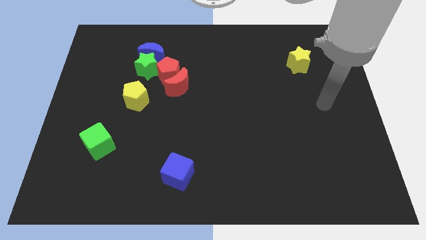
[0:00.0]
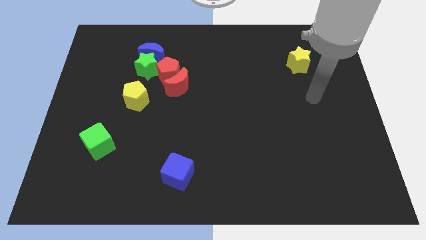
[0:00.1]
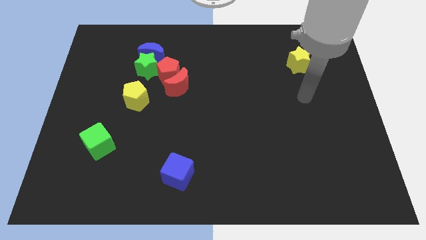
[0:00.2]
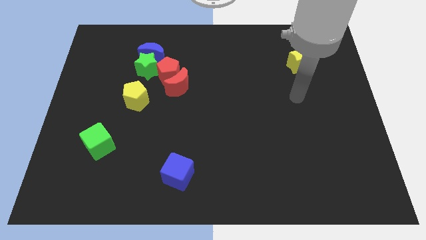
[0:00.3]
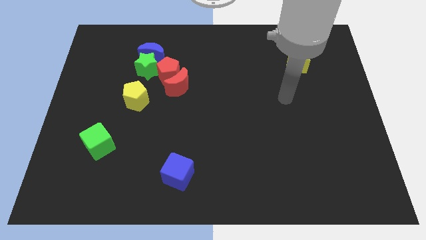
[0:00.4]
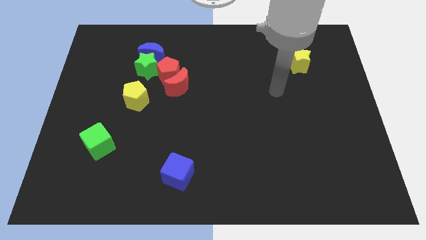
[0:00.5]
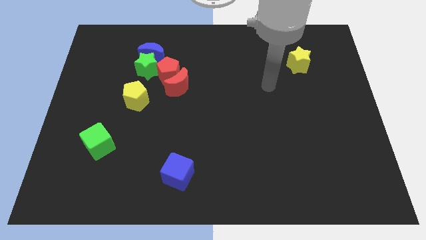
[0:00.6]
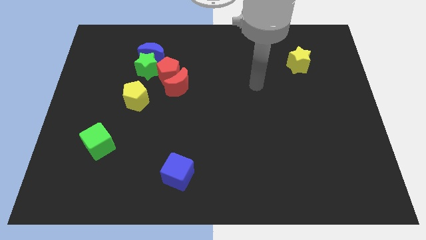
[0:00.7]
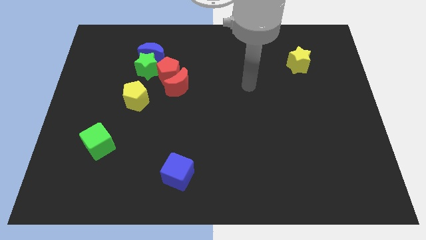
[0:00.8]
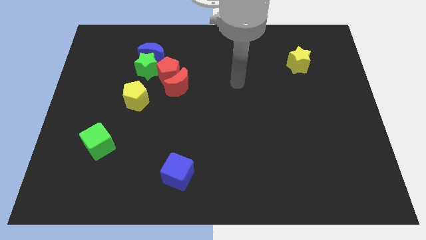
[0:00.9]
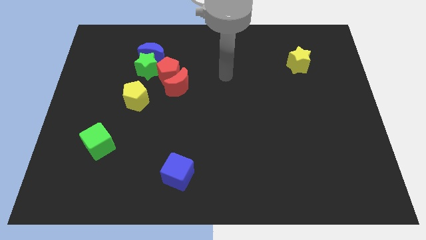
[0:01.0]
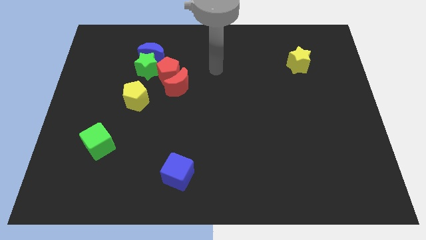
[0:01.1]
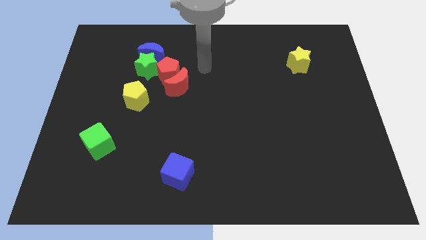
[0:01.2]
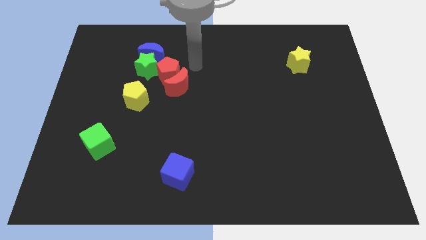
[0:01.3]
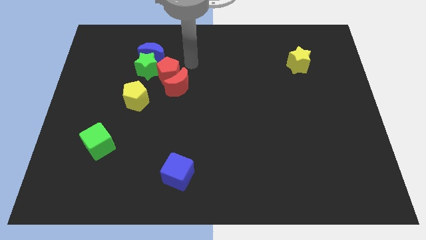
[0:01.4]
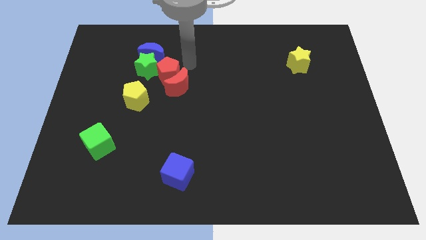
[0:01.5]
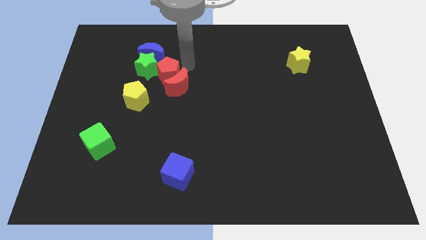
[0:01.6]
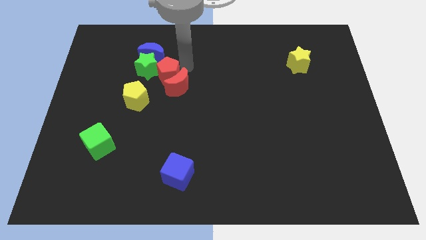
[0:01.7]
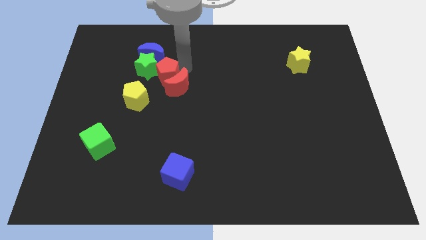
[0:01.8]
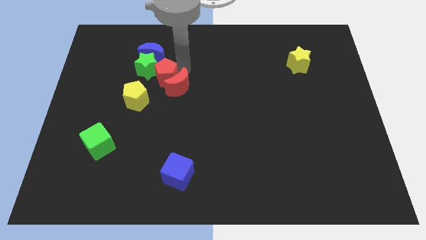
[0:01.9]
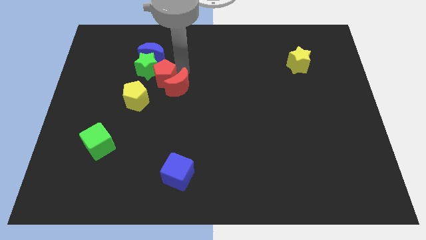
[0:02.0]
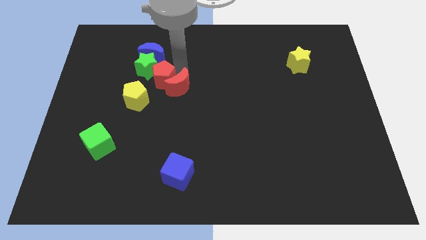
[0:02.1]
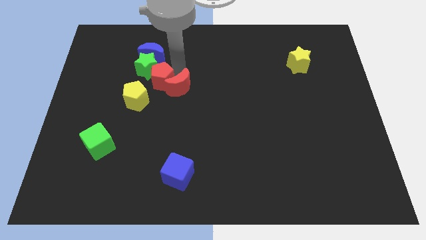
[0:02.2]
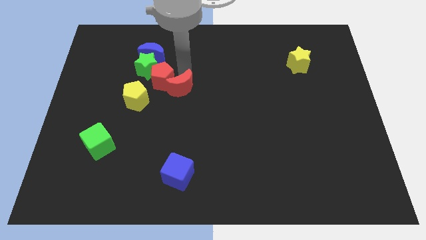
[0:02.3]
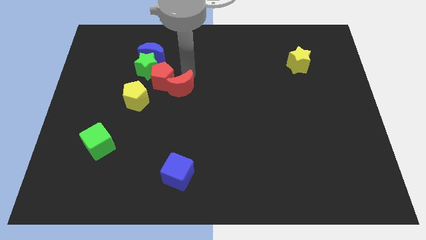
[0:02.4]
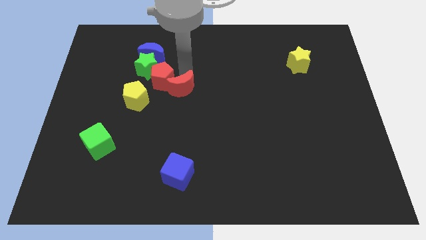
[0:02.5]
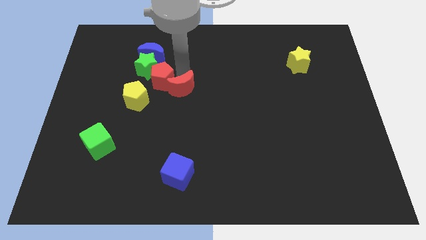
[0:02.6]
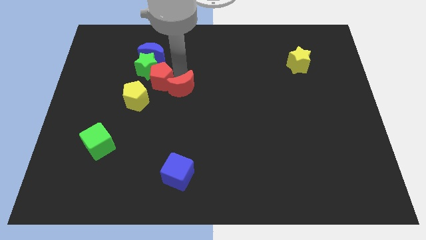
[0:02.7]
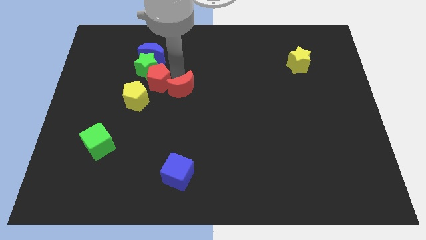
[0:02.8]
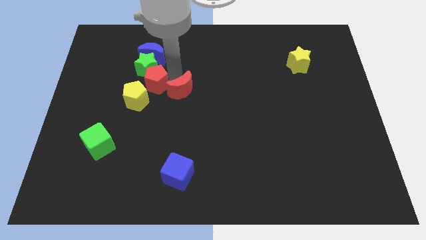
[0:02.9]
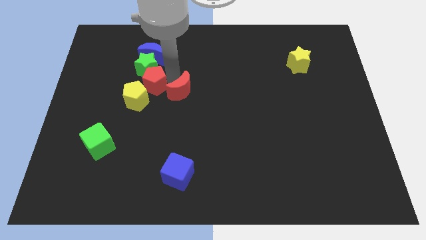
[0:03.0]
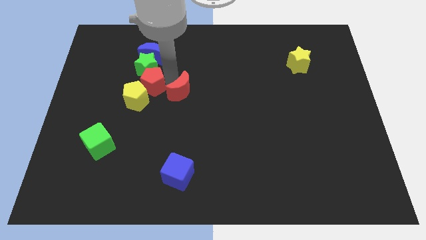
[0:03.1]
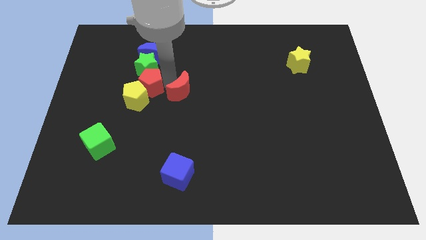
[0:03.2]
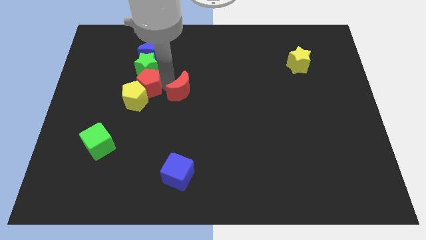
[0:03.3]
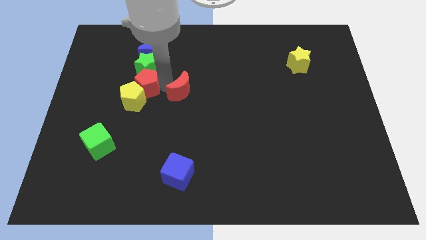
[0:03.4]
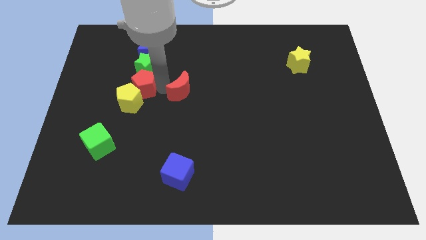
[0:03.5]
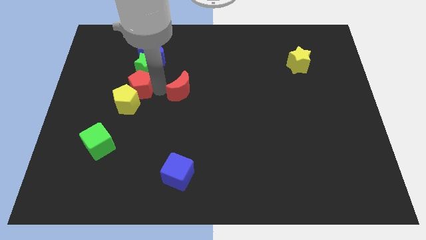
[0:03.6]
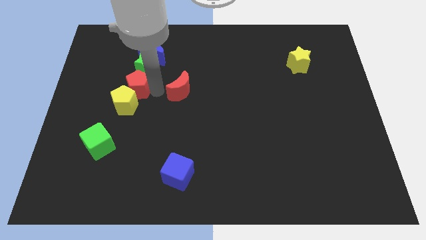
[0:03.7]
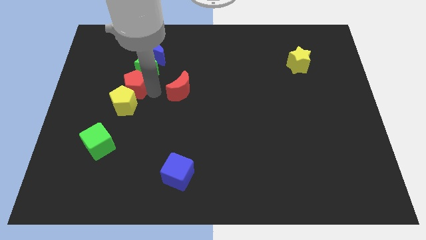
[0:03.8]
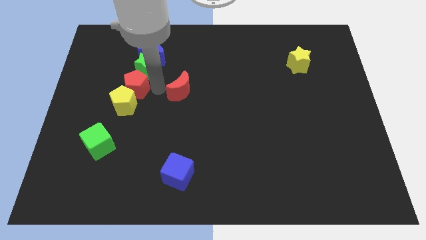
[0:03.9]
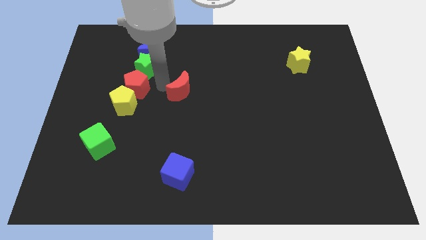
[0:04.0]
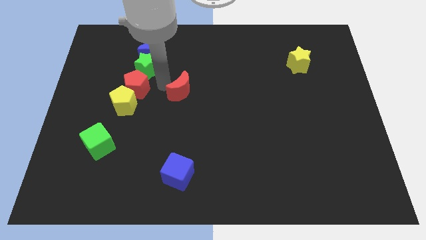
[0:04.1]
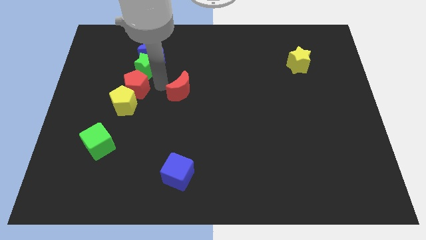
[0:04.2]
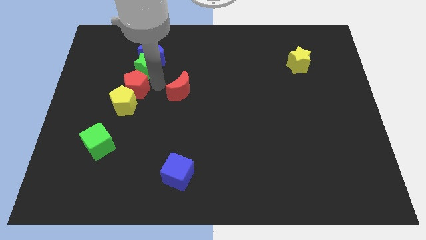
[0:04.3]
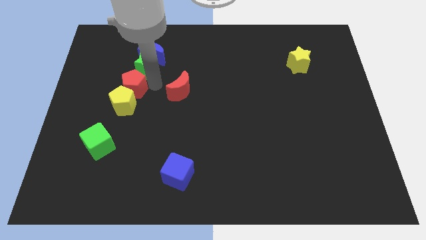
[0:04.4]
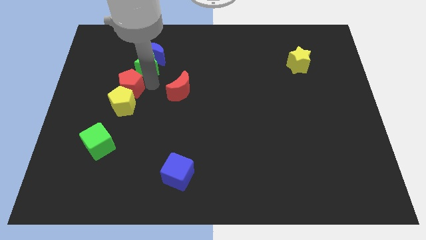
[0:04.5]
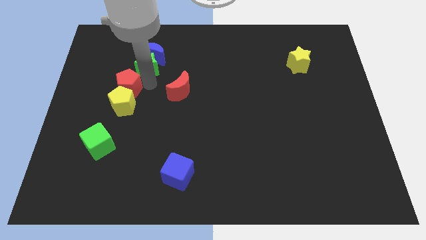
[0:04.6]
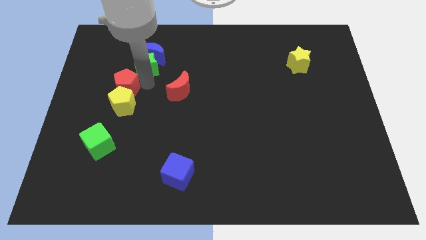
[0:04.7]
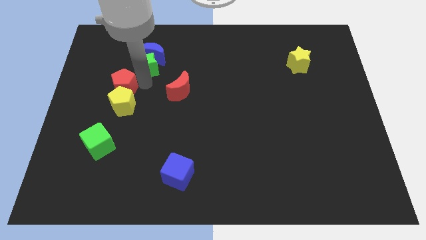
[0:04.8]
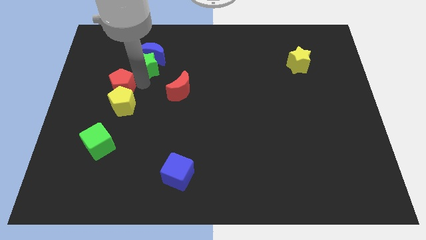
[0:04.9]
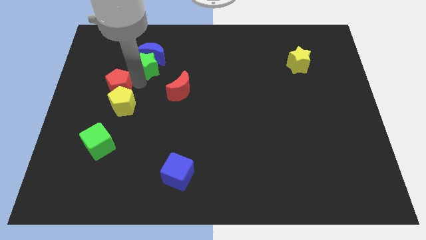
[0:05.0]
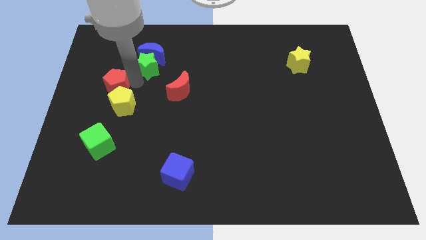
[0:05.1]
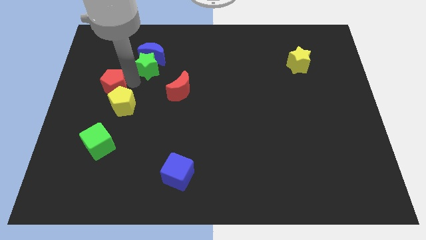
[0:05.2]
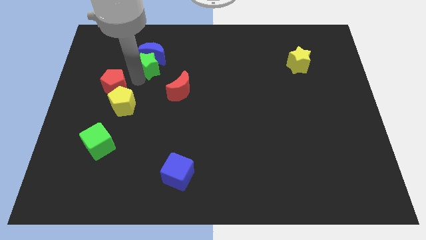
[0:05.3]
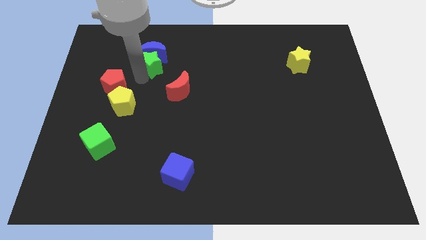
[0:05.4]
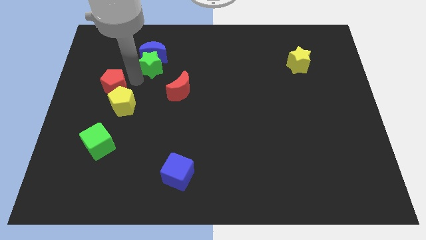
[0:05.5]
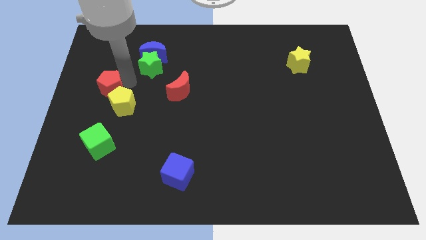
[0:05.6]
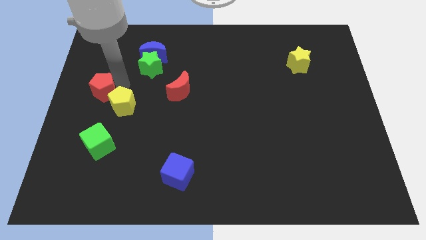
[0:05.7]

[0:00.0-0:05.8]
push the red pentagon to the left side

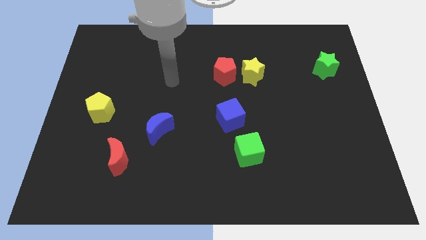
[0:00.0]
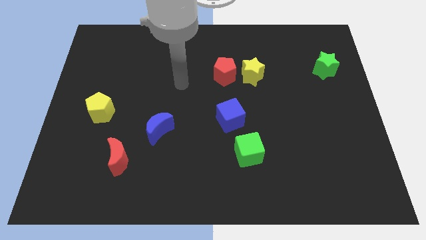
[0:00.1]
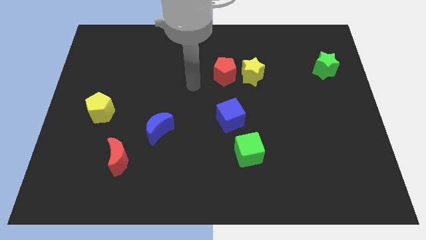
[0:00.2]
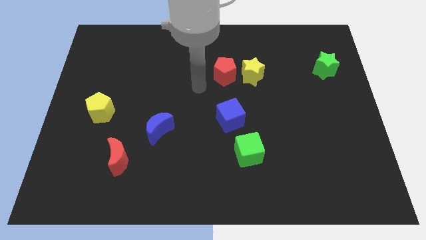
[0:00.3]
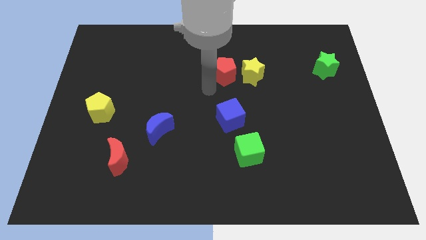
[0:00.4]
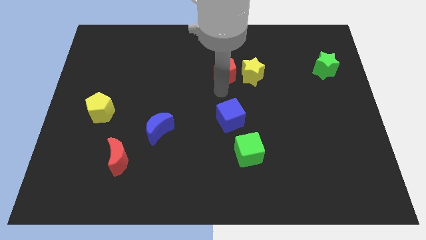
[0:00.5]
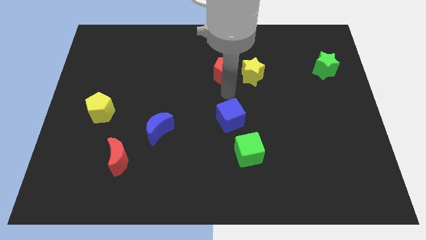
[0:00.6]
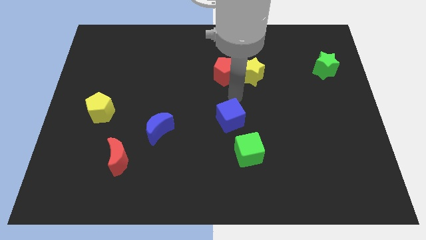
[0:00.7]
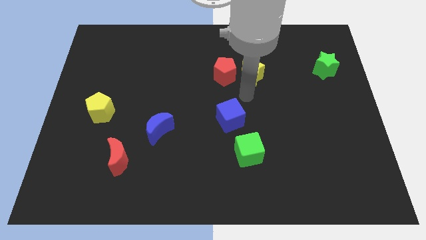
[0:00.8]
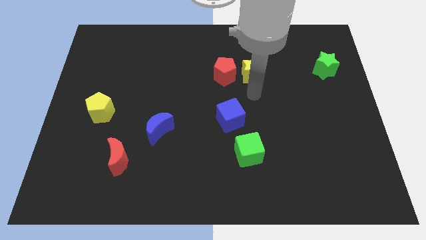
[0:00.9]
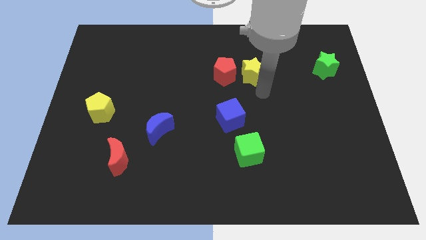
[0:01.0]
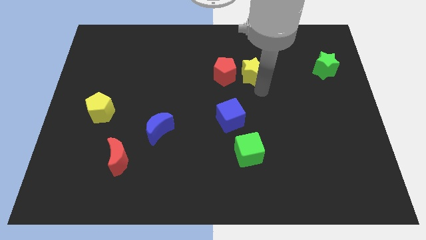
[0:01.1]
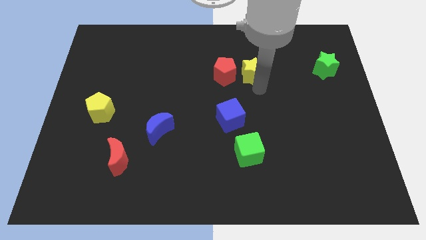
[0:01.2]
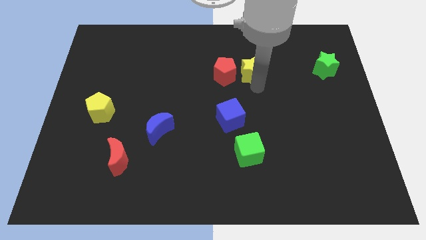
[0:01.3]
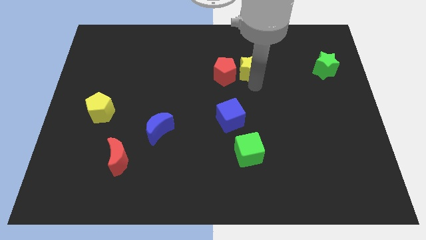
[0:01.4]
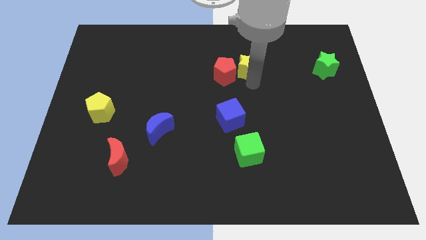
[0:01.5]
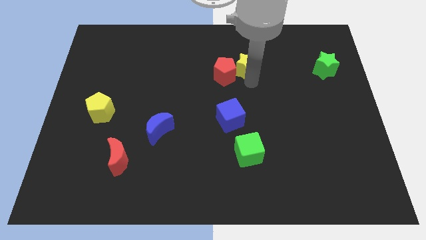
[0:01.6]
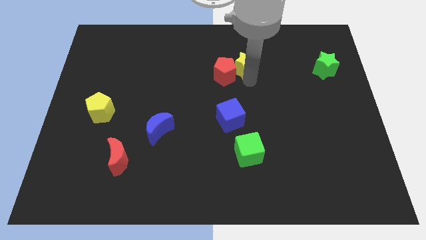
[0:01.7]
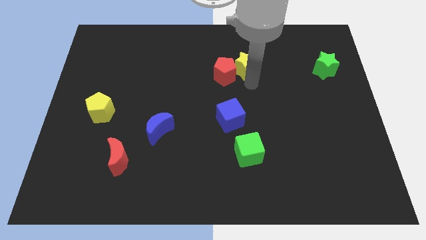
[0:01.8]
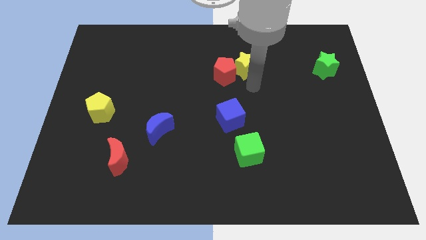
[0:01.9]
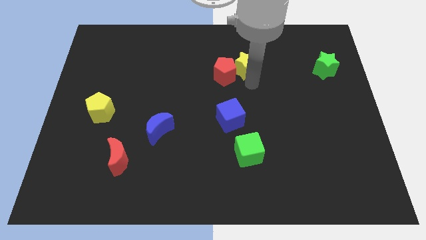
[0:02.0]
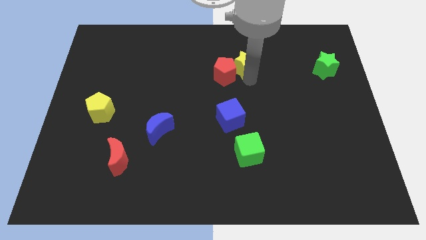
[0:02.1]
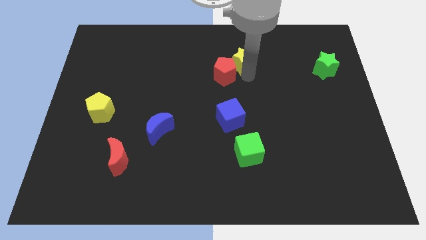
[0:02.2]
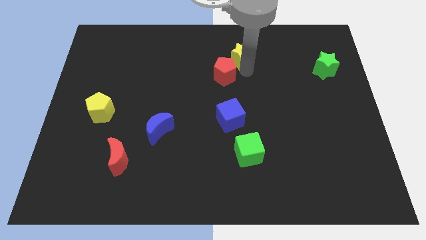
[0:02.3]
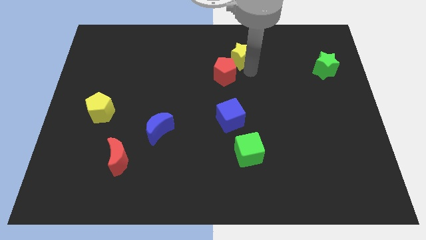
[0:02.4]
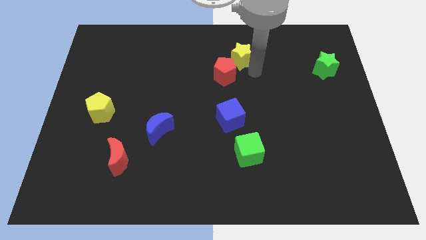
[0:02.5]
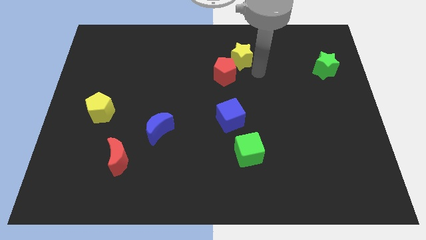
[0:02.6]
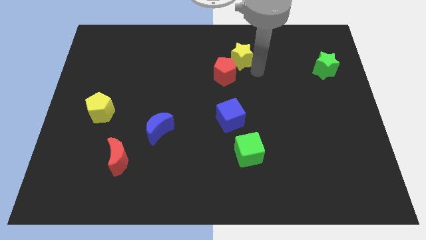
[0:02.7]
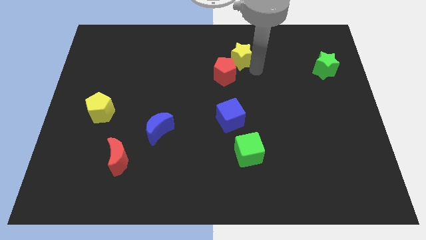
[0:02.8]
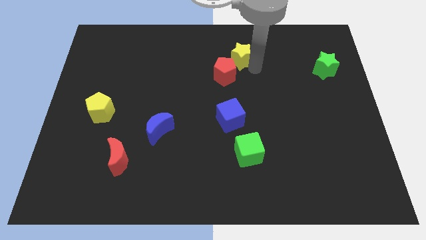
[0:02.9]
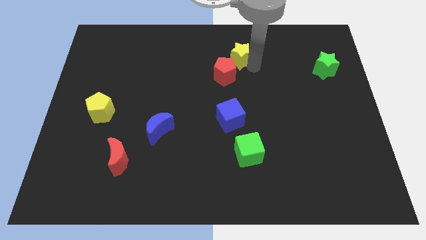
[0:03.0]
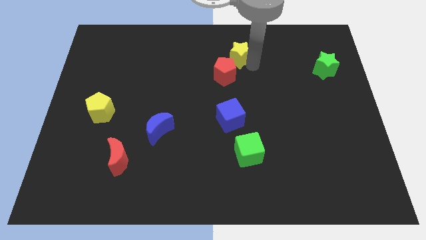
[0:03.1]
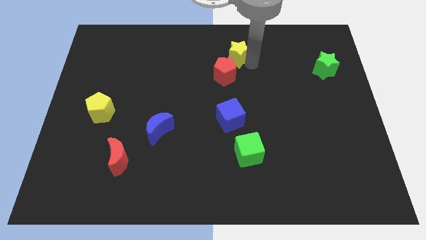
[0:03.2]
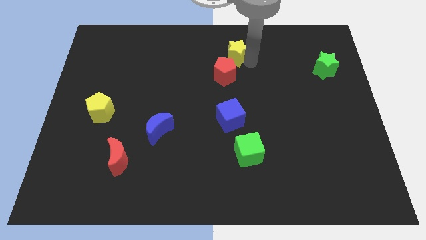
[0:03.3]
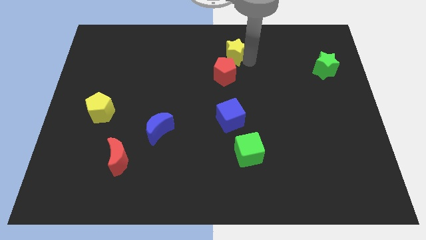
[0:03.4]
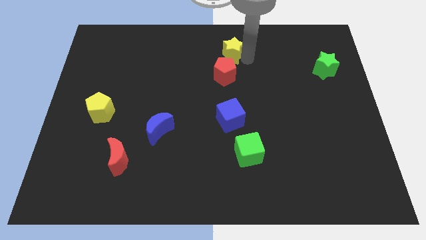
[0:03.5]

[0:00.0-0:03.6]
move the yellow star to the towards your base
